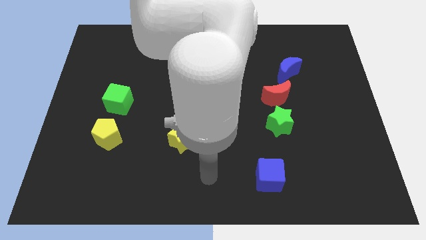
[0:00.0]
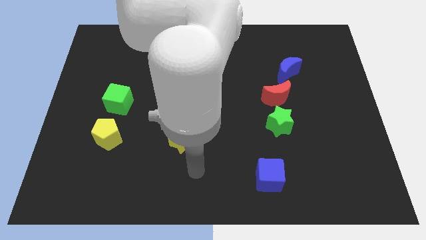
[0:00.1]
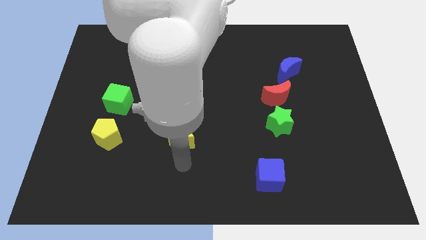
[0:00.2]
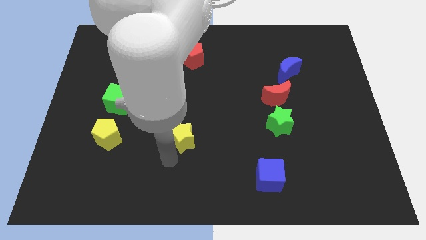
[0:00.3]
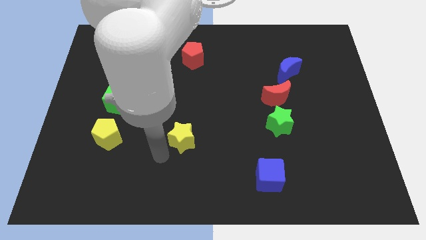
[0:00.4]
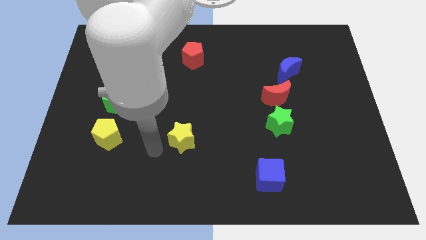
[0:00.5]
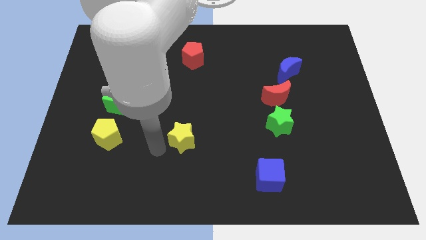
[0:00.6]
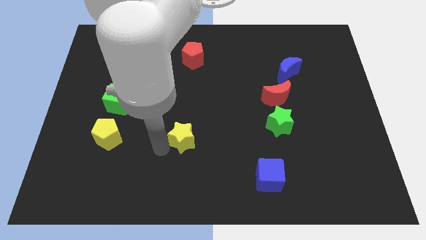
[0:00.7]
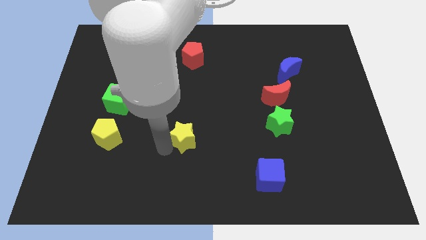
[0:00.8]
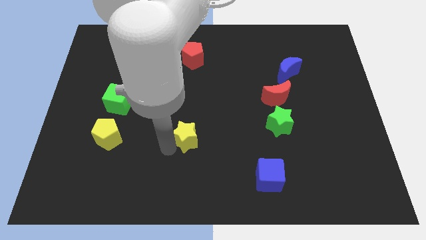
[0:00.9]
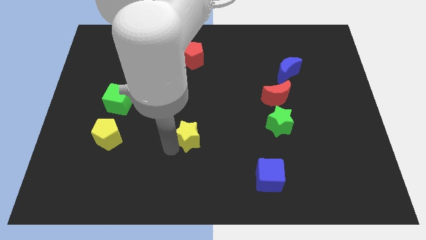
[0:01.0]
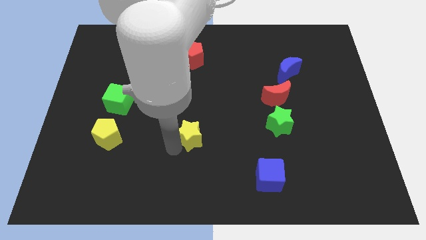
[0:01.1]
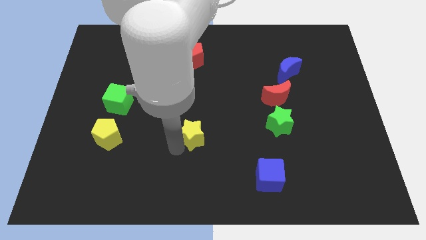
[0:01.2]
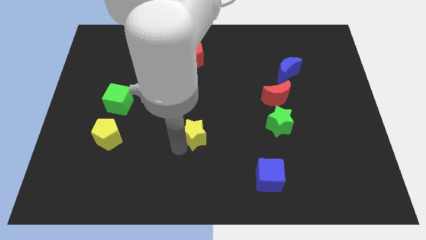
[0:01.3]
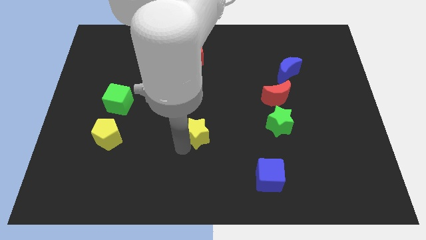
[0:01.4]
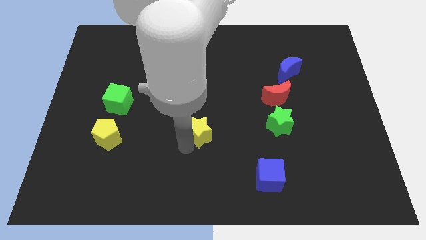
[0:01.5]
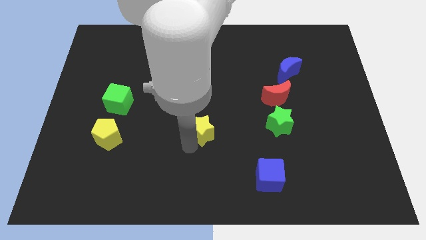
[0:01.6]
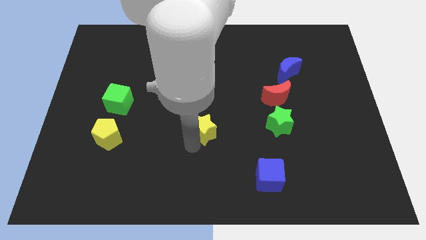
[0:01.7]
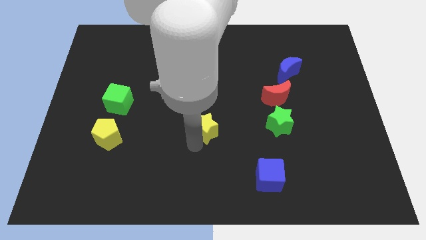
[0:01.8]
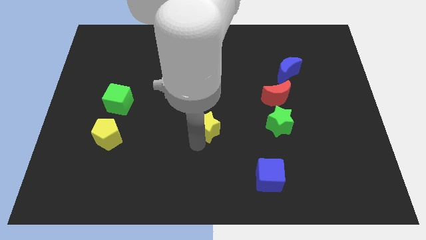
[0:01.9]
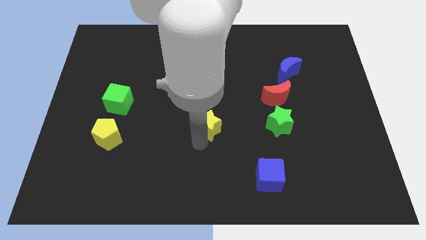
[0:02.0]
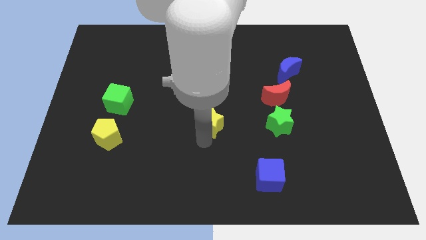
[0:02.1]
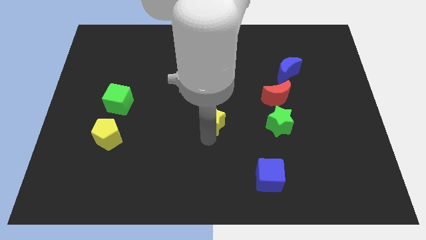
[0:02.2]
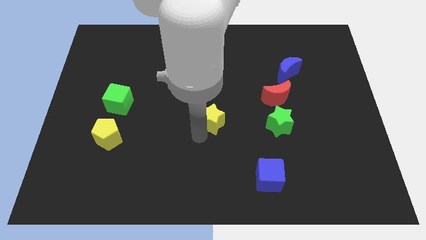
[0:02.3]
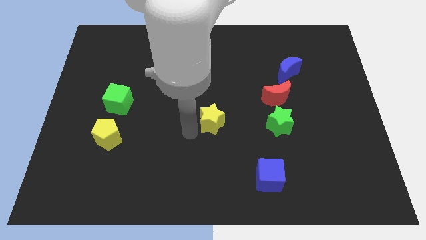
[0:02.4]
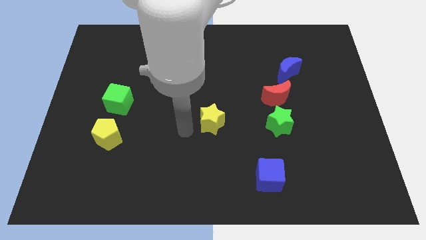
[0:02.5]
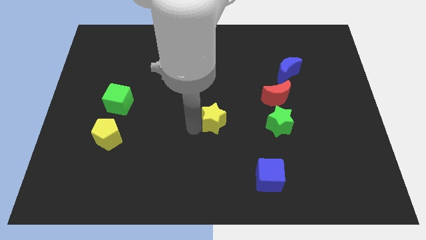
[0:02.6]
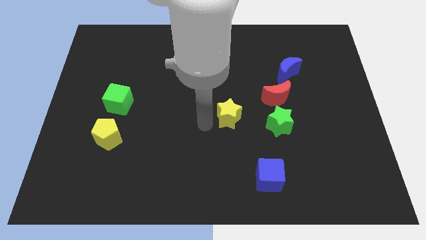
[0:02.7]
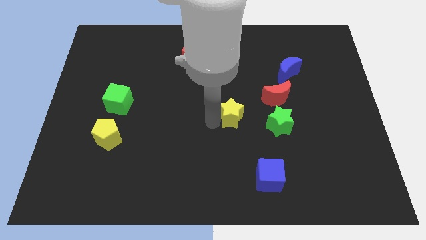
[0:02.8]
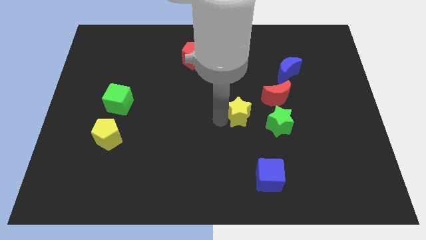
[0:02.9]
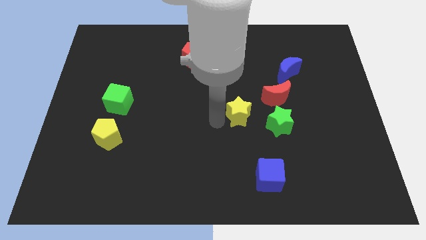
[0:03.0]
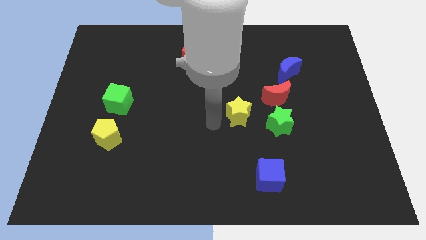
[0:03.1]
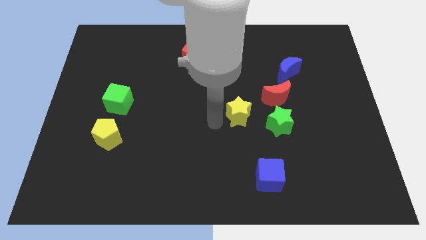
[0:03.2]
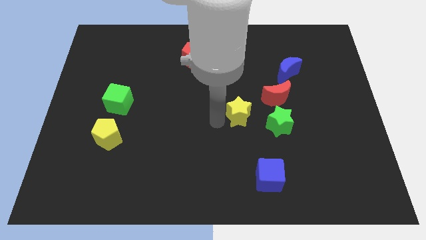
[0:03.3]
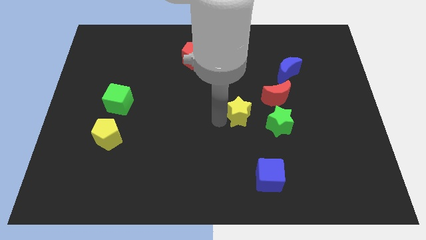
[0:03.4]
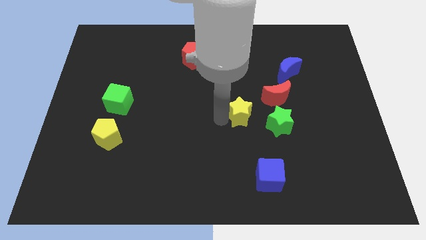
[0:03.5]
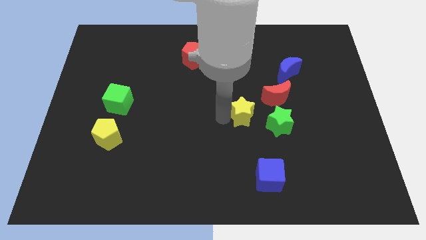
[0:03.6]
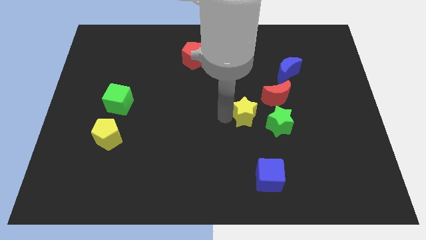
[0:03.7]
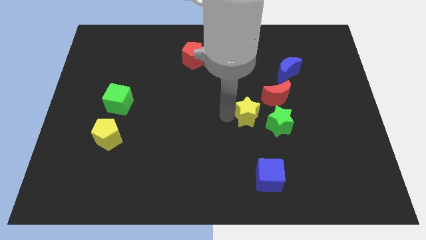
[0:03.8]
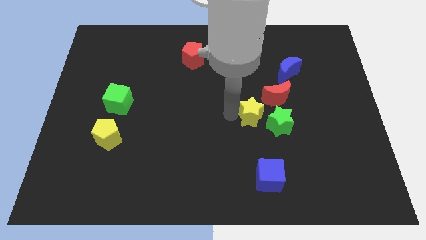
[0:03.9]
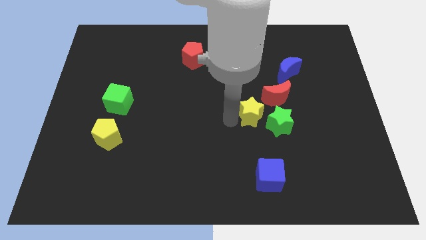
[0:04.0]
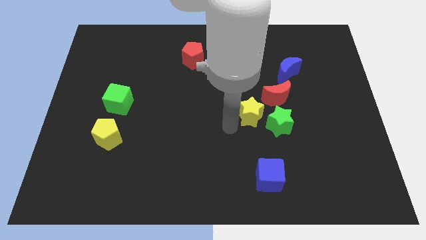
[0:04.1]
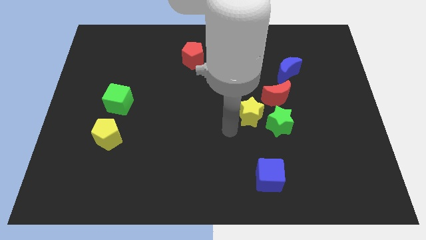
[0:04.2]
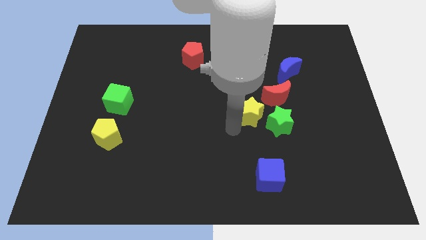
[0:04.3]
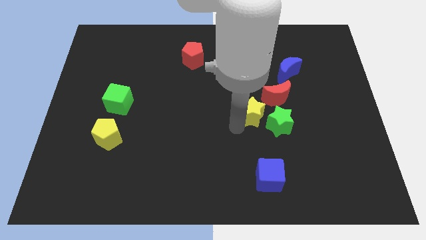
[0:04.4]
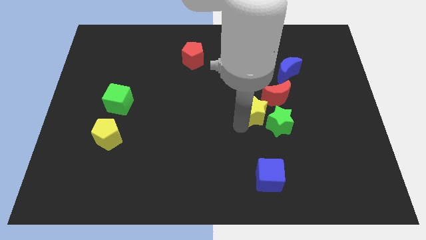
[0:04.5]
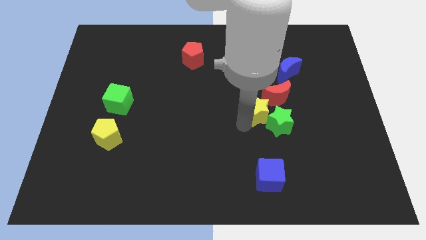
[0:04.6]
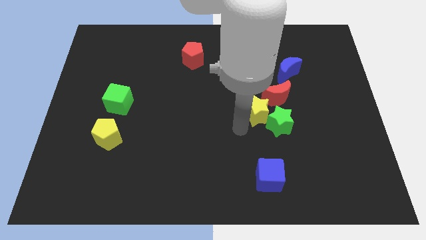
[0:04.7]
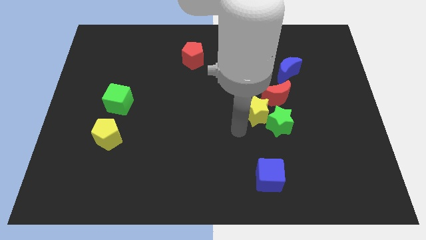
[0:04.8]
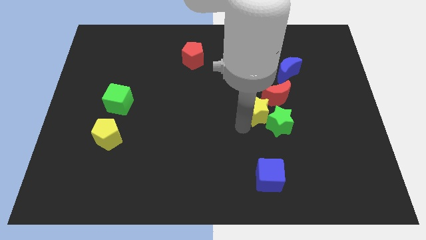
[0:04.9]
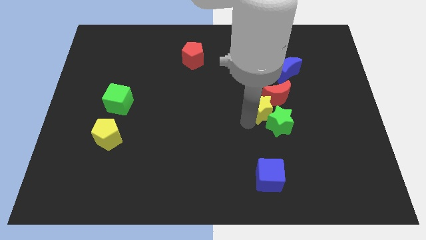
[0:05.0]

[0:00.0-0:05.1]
move the yellow star next to the red moon

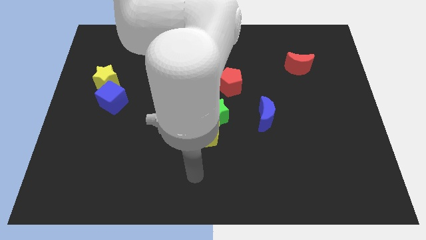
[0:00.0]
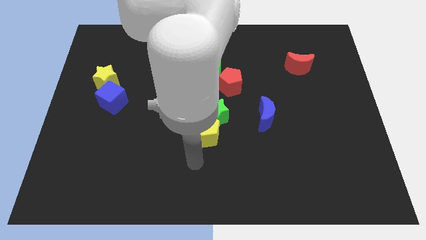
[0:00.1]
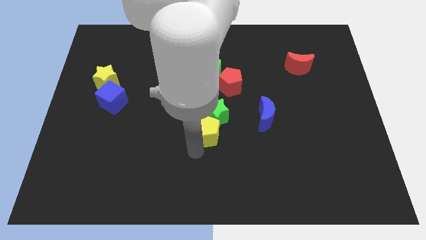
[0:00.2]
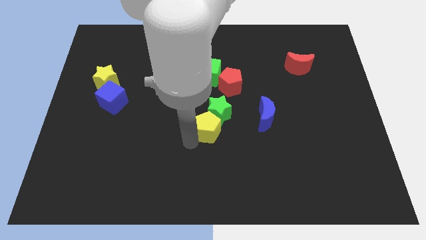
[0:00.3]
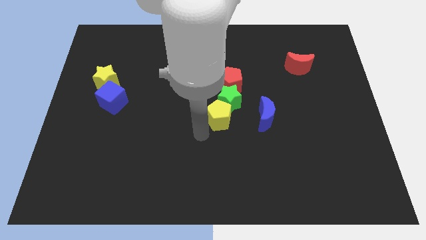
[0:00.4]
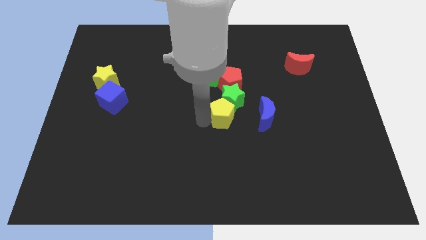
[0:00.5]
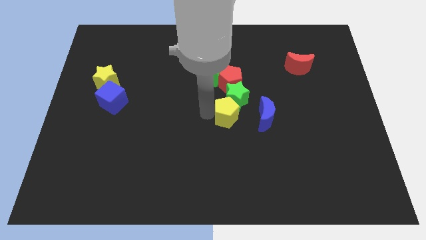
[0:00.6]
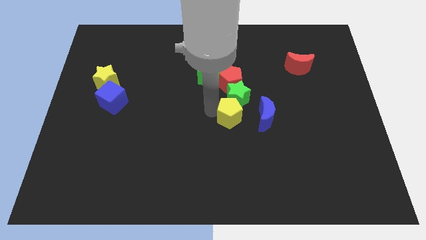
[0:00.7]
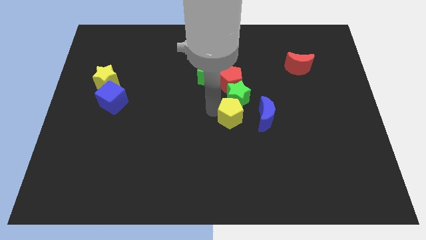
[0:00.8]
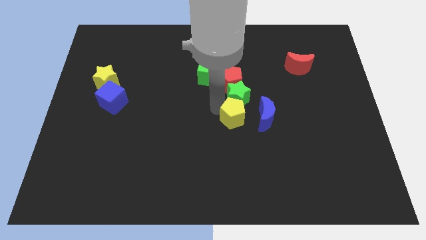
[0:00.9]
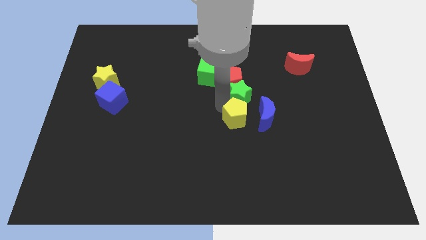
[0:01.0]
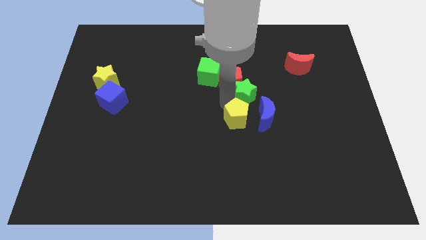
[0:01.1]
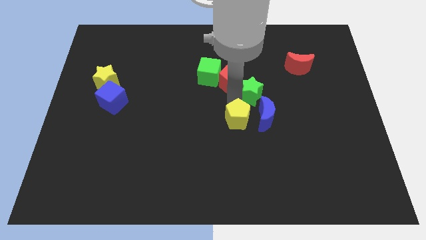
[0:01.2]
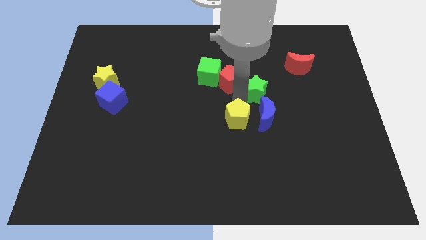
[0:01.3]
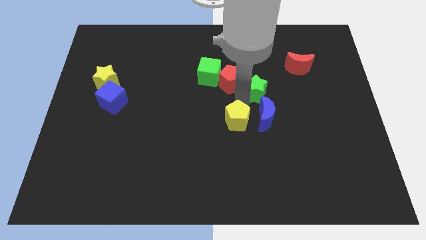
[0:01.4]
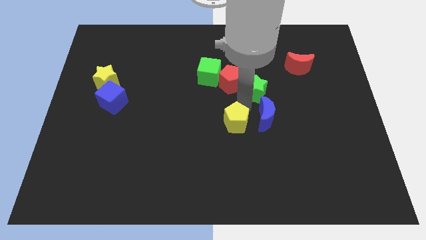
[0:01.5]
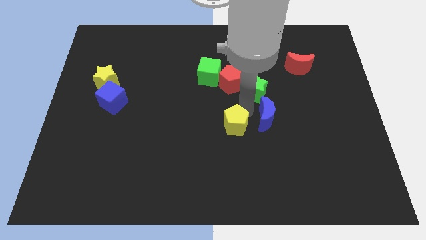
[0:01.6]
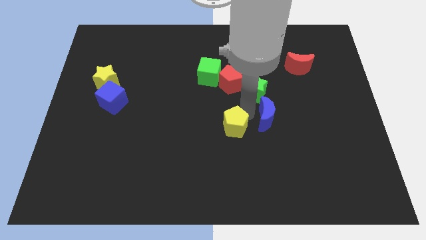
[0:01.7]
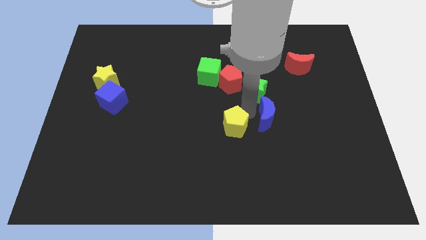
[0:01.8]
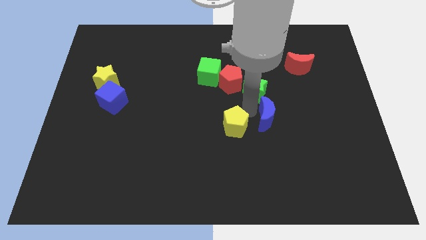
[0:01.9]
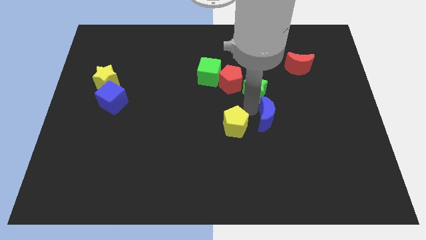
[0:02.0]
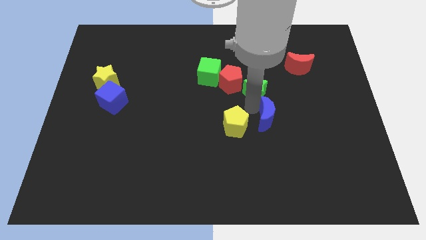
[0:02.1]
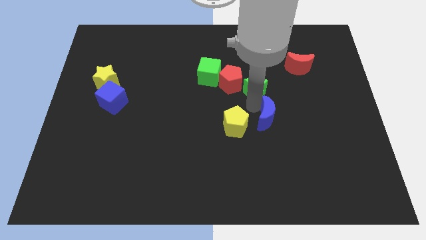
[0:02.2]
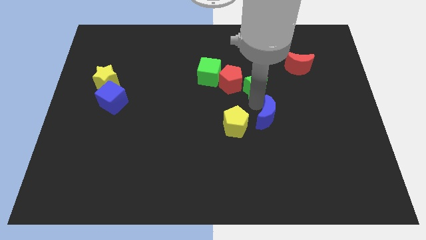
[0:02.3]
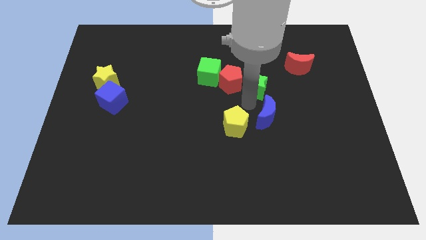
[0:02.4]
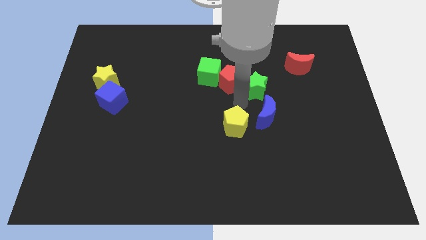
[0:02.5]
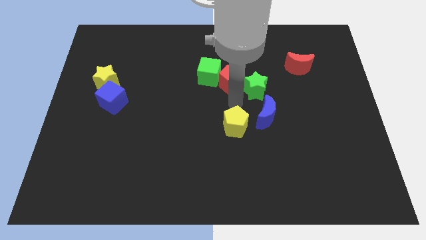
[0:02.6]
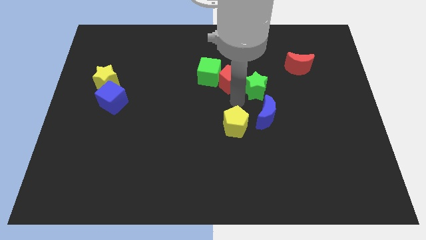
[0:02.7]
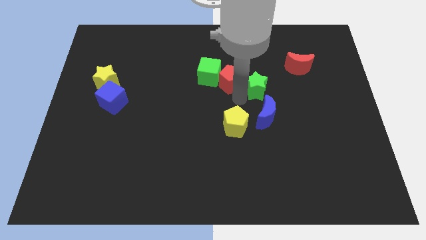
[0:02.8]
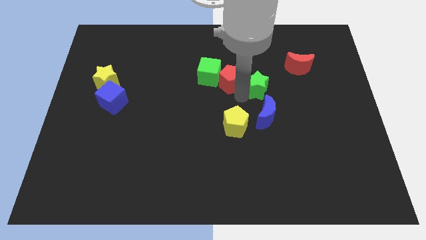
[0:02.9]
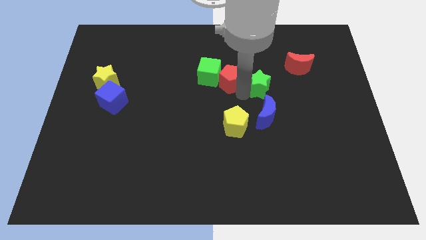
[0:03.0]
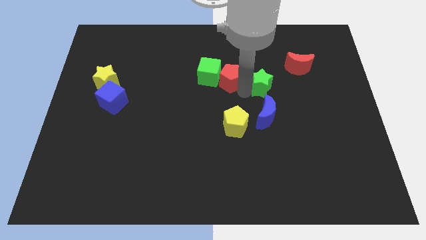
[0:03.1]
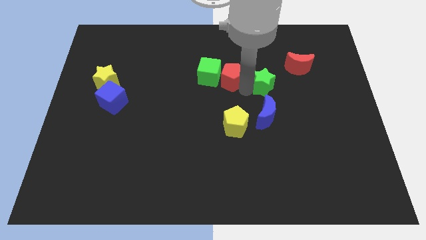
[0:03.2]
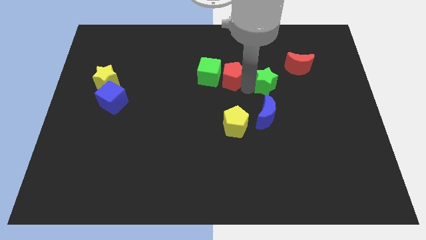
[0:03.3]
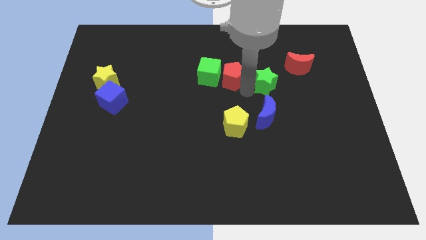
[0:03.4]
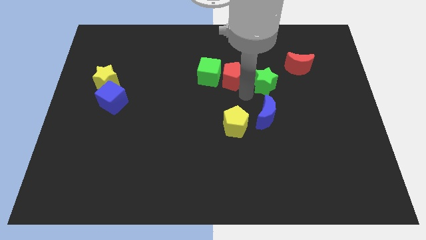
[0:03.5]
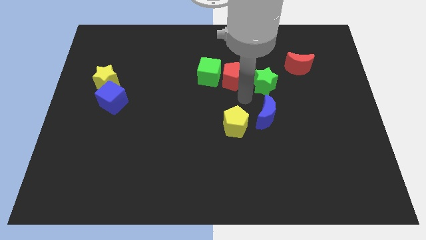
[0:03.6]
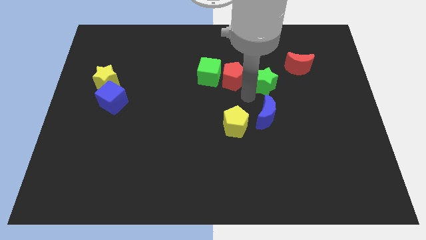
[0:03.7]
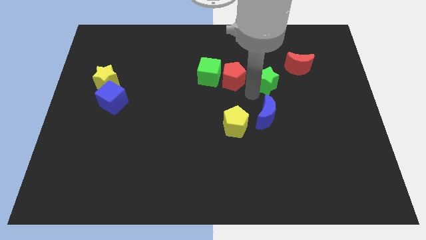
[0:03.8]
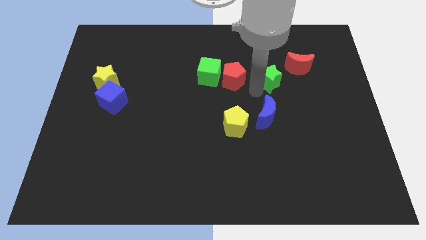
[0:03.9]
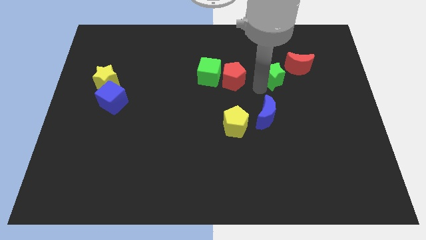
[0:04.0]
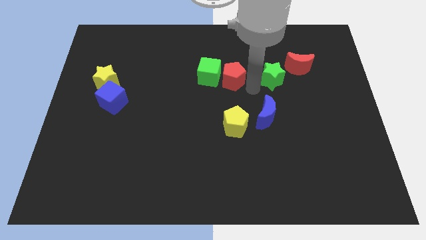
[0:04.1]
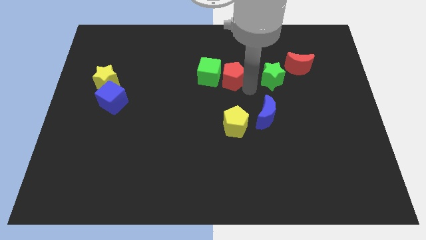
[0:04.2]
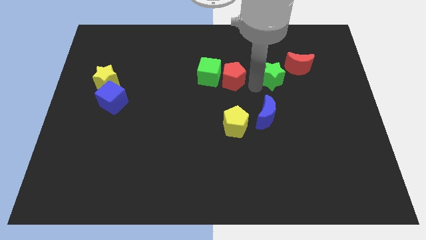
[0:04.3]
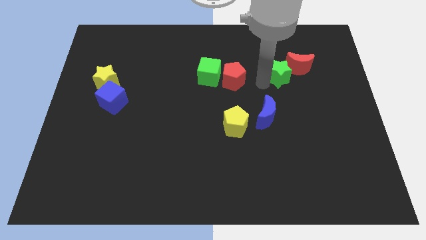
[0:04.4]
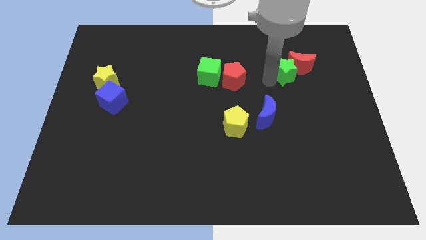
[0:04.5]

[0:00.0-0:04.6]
push the green star to the red moon
